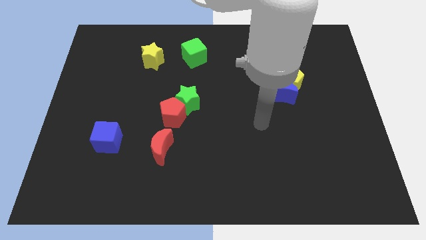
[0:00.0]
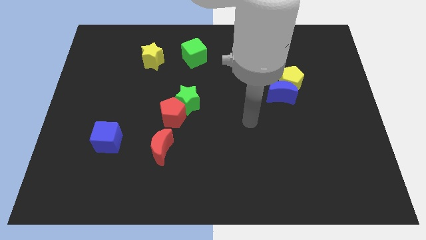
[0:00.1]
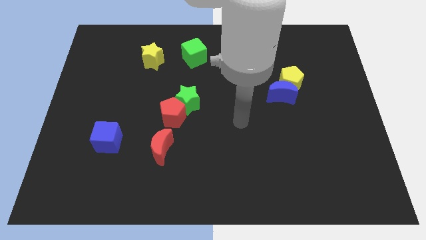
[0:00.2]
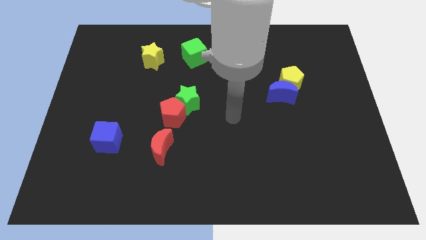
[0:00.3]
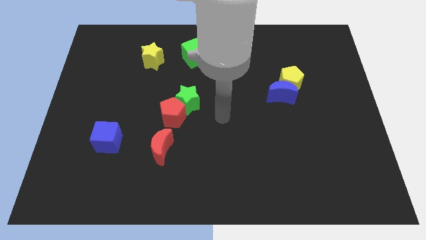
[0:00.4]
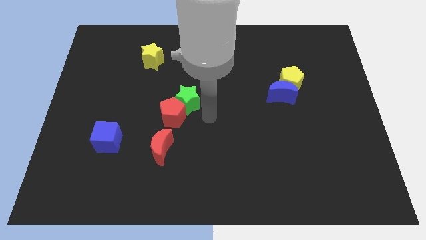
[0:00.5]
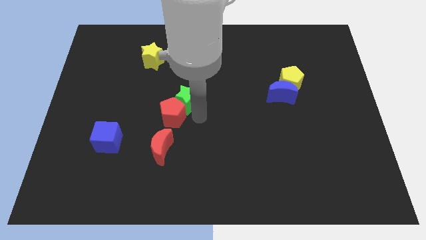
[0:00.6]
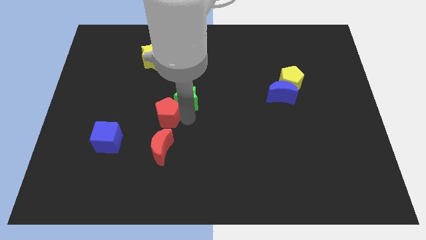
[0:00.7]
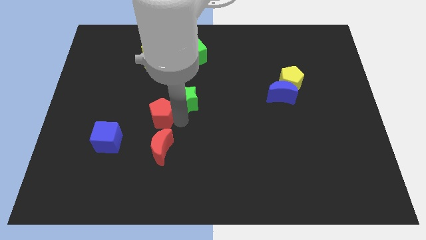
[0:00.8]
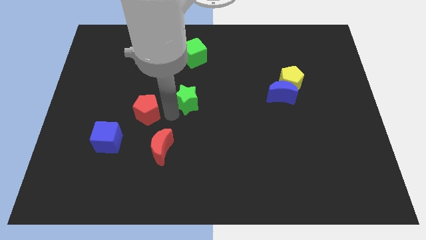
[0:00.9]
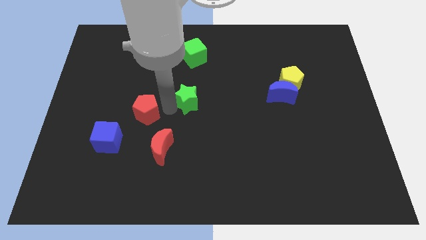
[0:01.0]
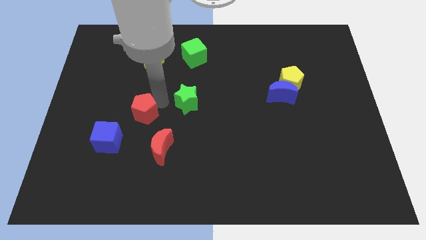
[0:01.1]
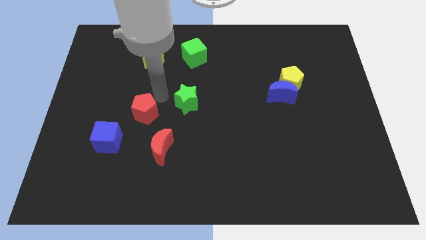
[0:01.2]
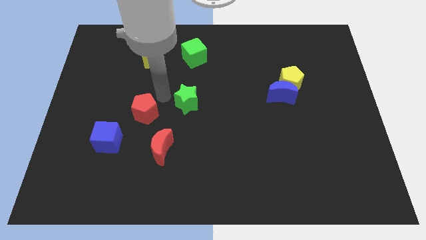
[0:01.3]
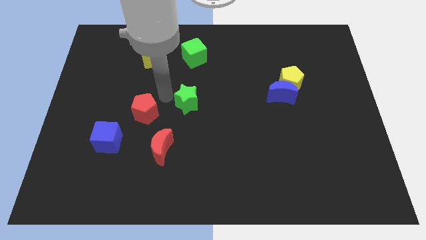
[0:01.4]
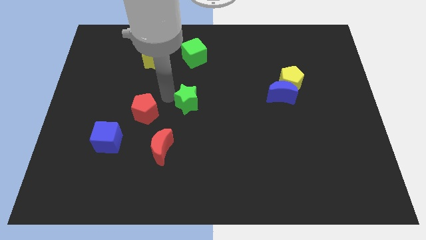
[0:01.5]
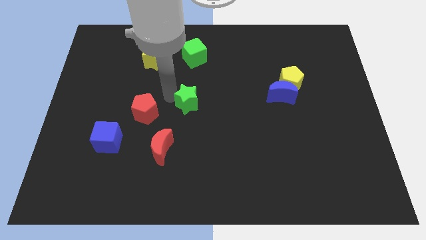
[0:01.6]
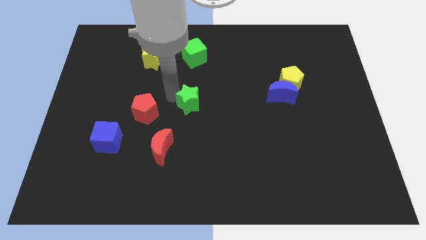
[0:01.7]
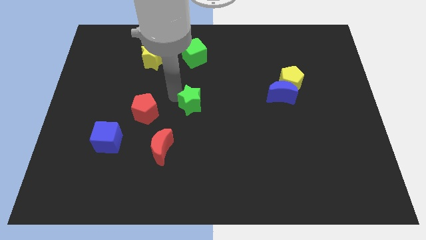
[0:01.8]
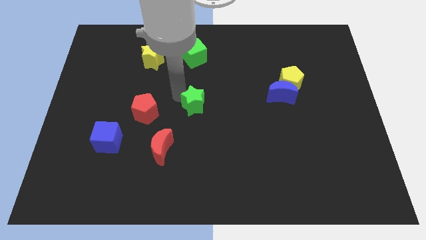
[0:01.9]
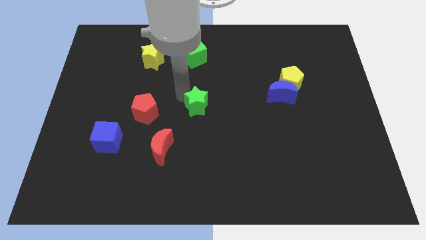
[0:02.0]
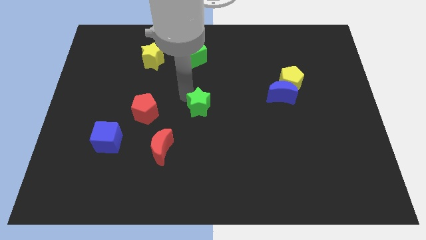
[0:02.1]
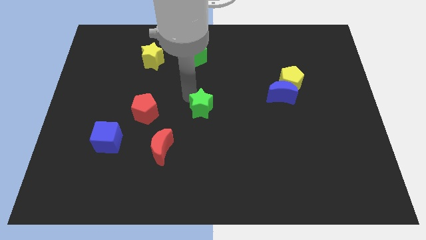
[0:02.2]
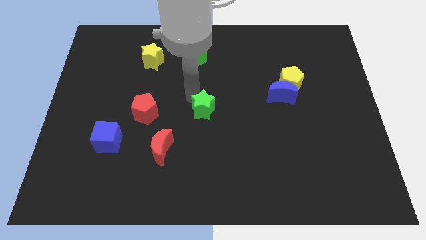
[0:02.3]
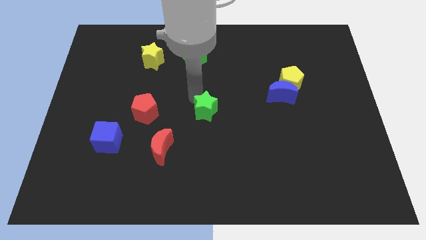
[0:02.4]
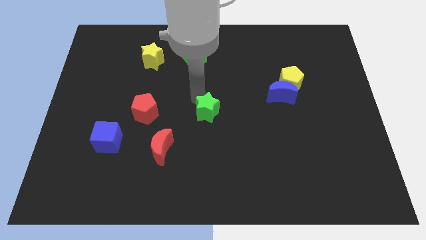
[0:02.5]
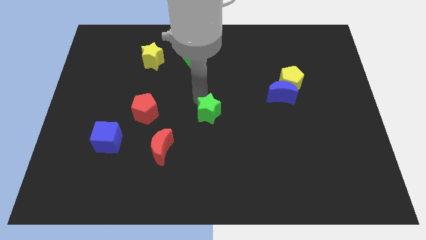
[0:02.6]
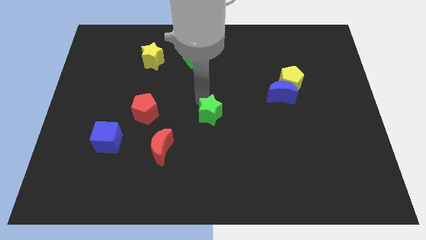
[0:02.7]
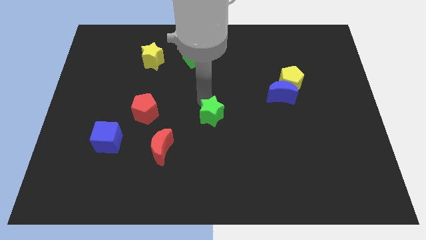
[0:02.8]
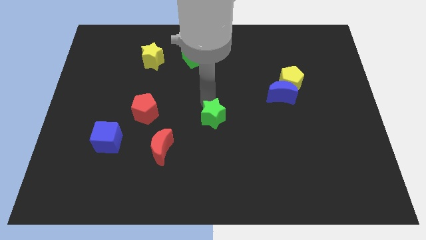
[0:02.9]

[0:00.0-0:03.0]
push the green star down and then right somewhat

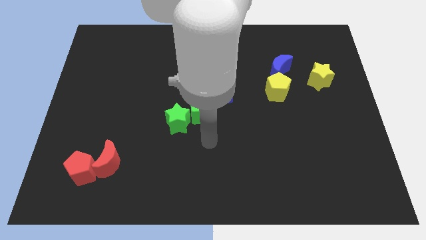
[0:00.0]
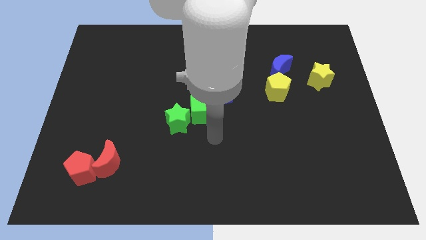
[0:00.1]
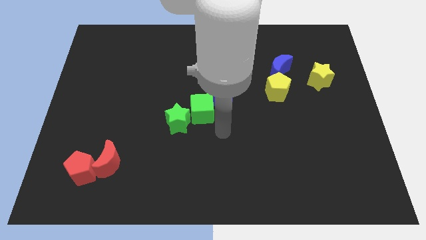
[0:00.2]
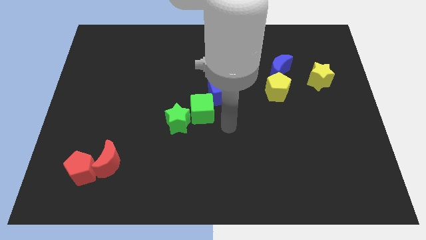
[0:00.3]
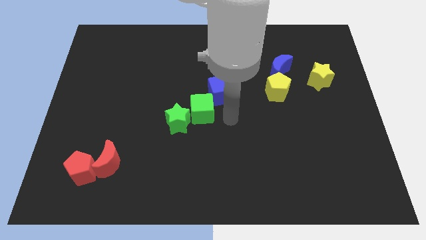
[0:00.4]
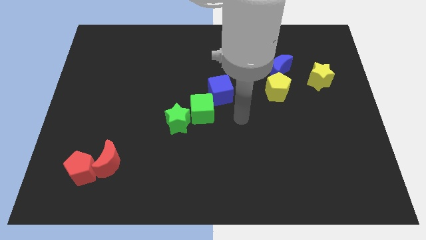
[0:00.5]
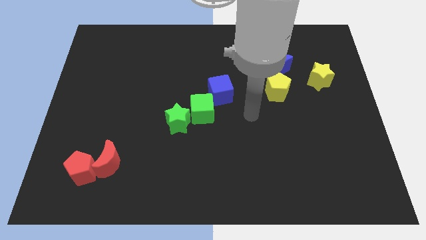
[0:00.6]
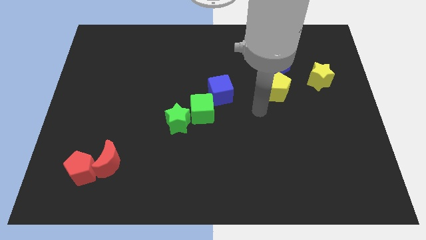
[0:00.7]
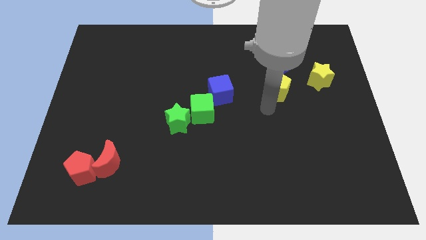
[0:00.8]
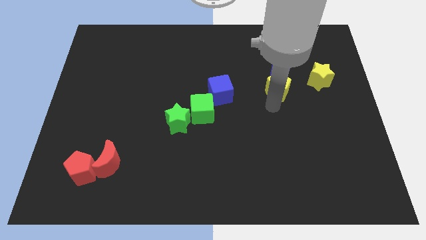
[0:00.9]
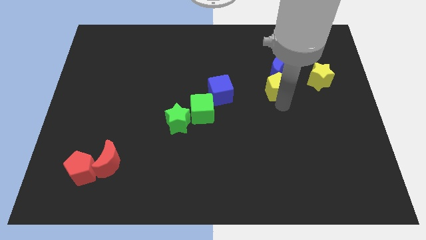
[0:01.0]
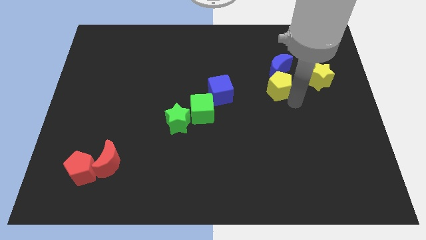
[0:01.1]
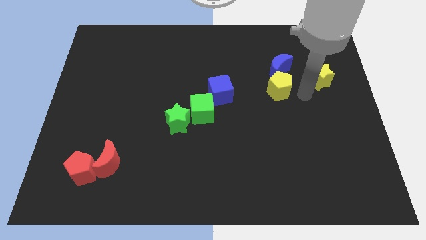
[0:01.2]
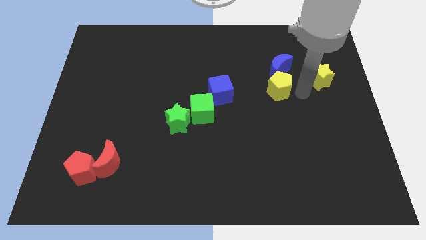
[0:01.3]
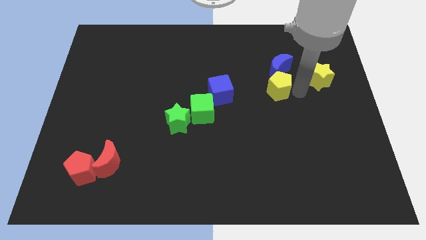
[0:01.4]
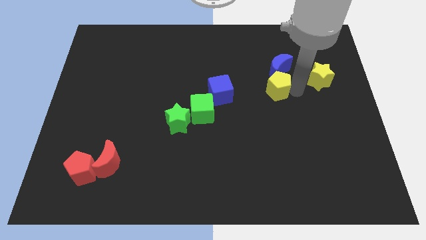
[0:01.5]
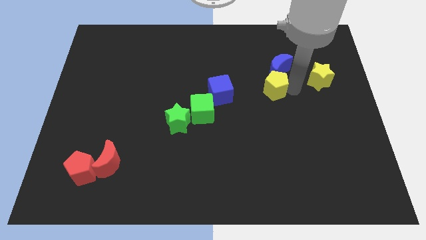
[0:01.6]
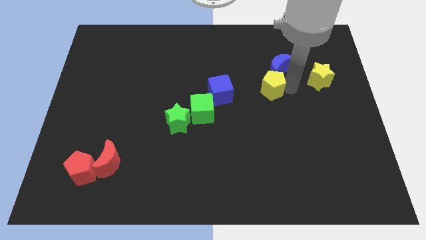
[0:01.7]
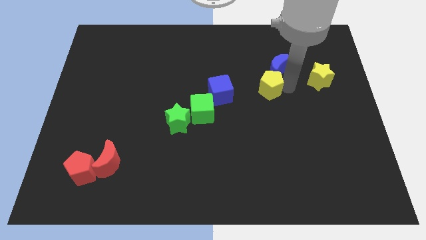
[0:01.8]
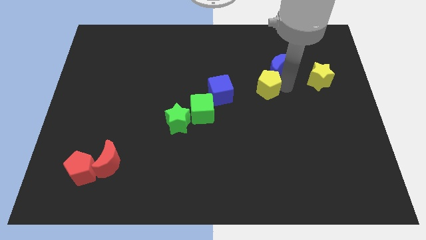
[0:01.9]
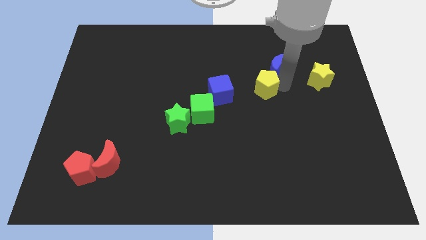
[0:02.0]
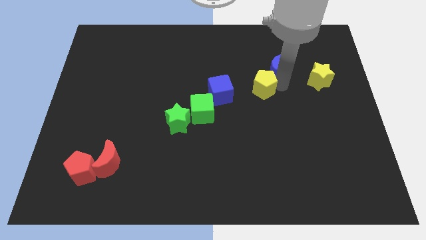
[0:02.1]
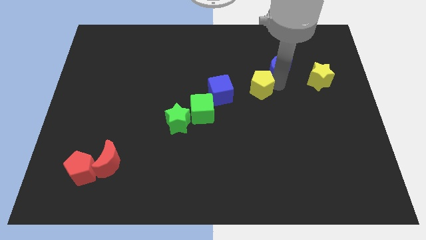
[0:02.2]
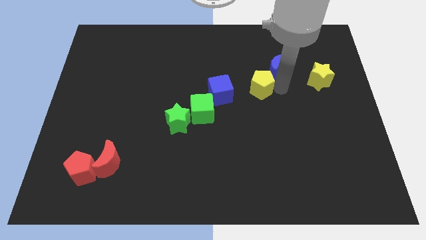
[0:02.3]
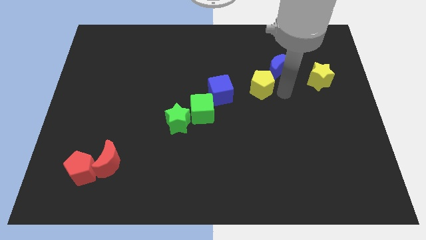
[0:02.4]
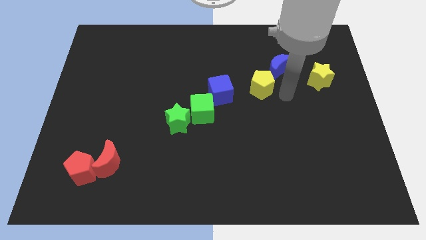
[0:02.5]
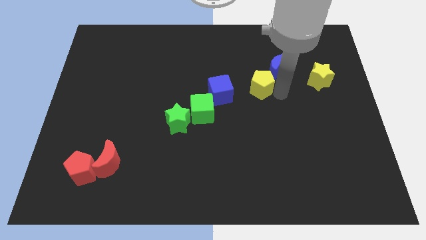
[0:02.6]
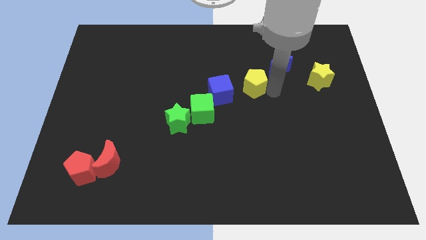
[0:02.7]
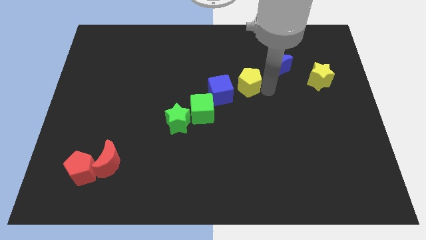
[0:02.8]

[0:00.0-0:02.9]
move the yellow pentagon left a little

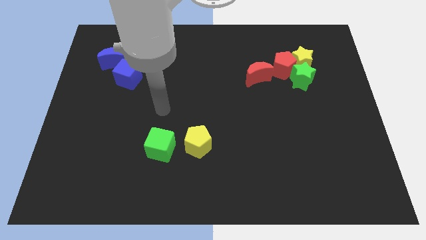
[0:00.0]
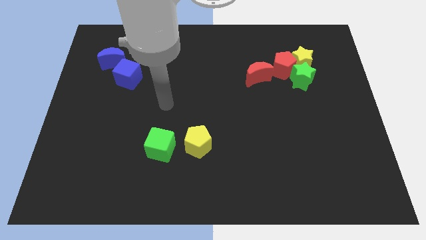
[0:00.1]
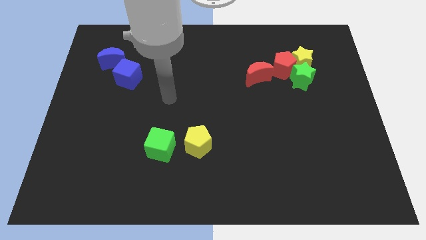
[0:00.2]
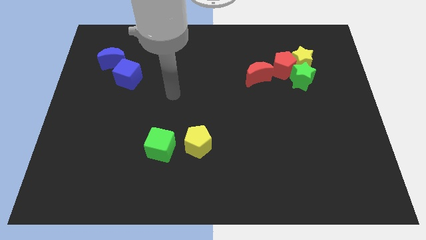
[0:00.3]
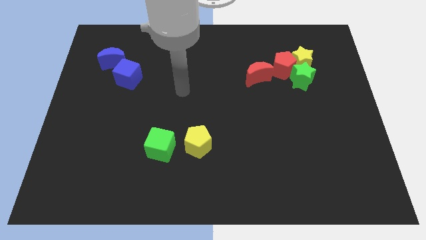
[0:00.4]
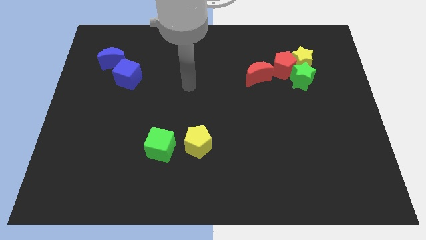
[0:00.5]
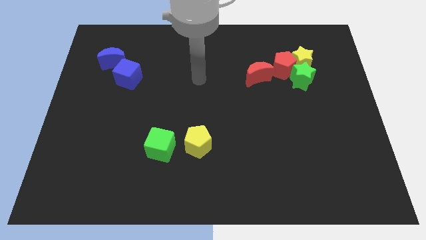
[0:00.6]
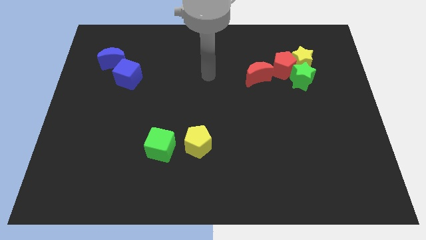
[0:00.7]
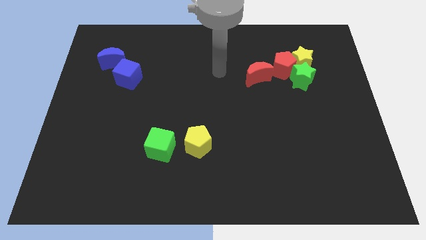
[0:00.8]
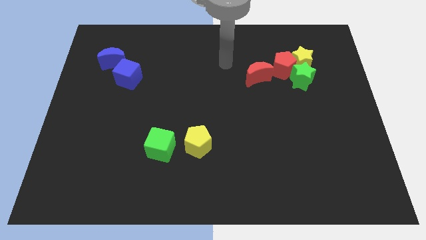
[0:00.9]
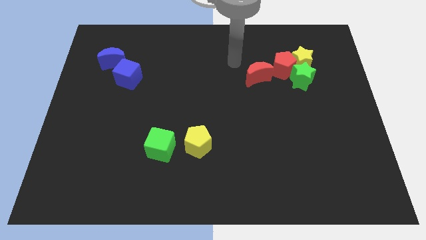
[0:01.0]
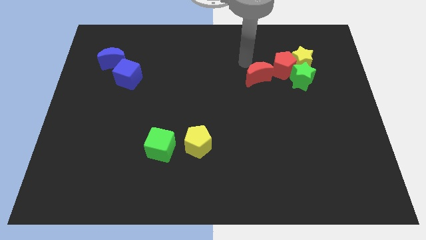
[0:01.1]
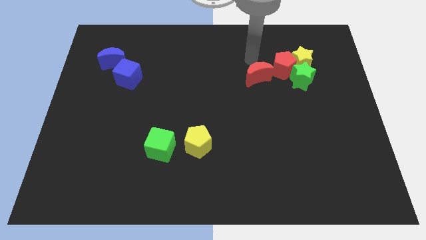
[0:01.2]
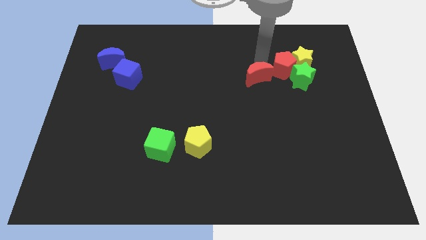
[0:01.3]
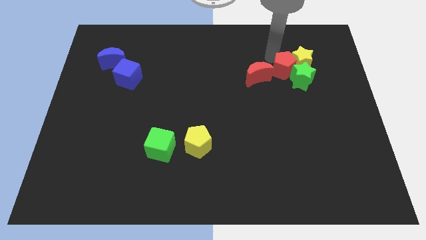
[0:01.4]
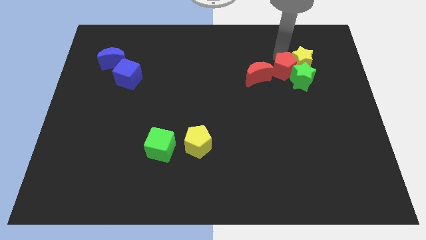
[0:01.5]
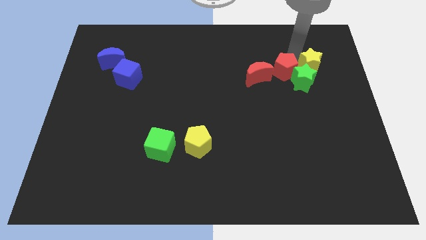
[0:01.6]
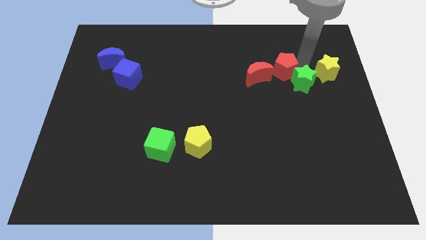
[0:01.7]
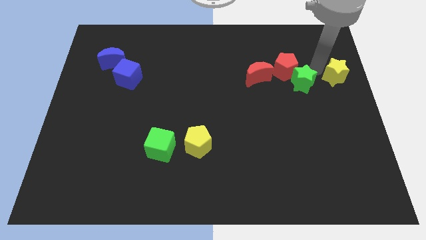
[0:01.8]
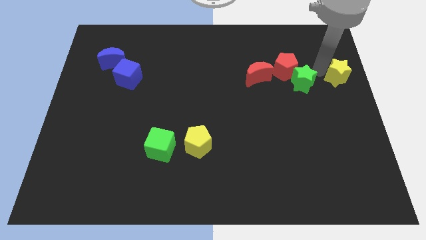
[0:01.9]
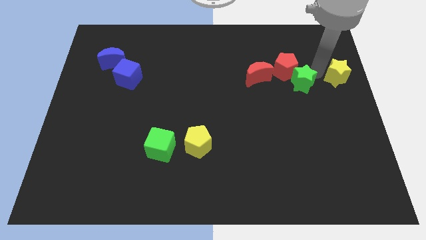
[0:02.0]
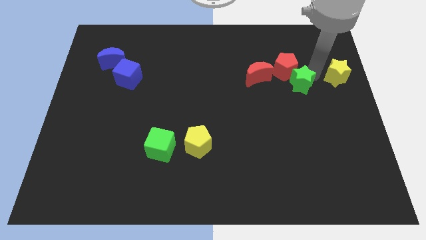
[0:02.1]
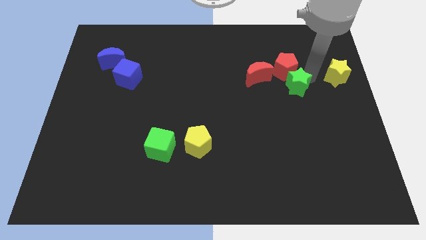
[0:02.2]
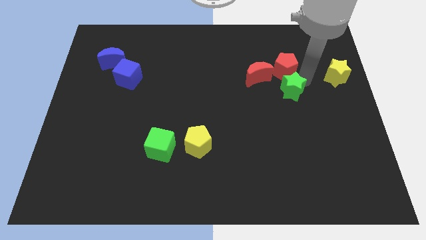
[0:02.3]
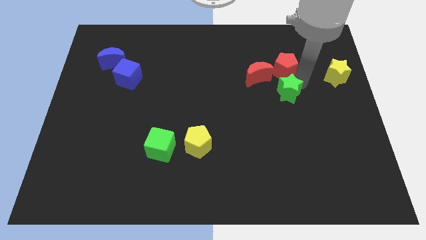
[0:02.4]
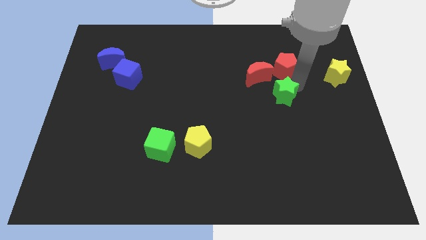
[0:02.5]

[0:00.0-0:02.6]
move the green star diagonally downwards and left a little bit
